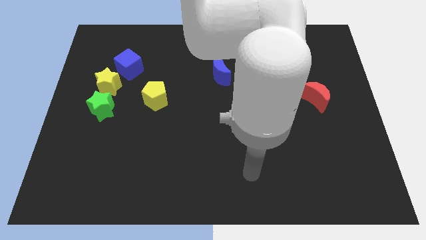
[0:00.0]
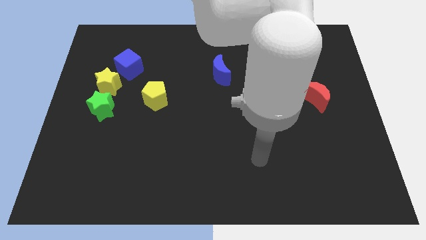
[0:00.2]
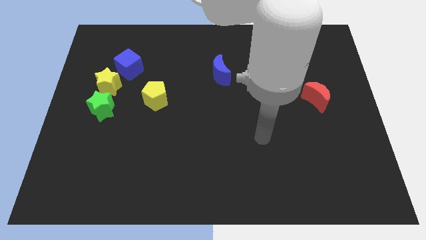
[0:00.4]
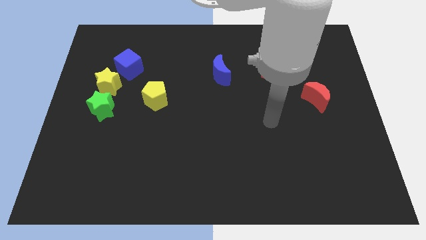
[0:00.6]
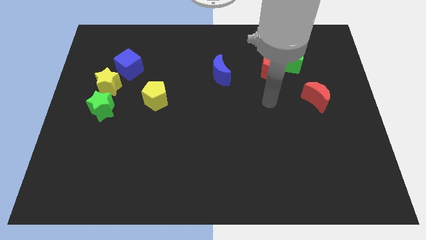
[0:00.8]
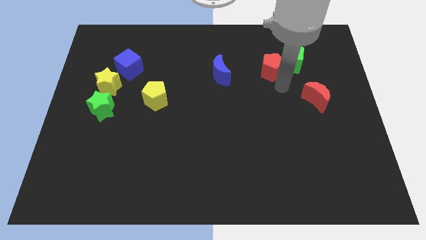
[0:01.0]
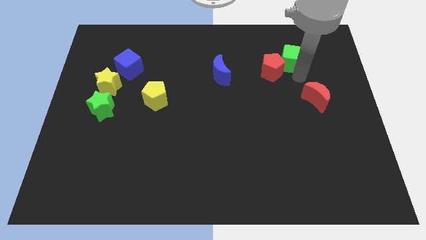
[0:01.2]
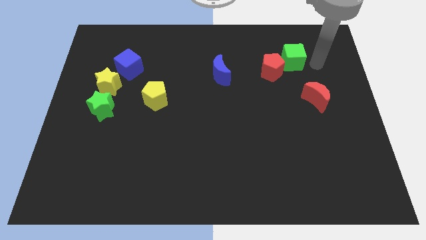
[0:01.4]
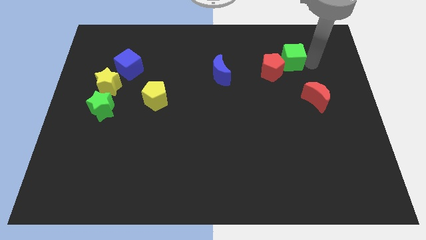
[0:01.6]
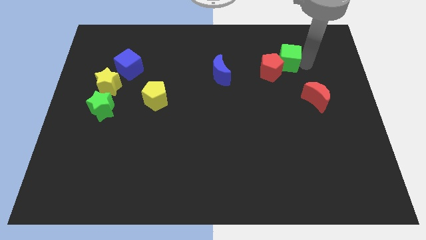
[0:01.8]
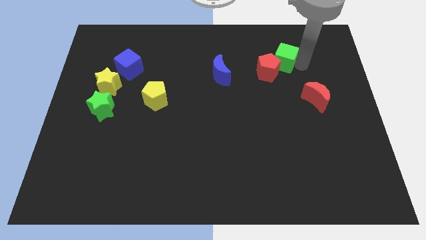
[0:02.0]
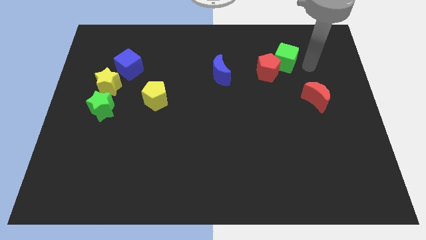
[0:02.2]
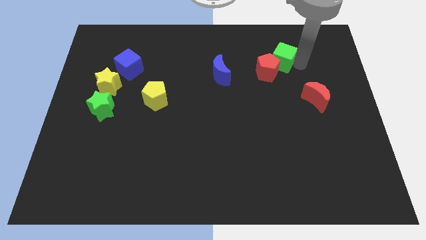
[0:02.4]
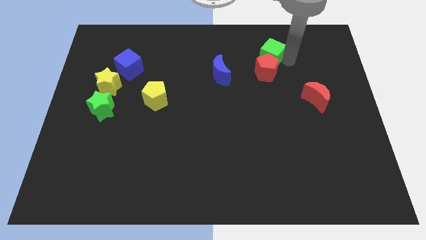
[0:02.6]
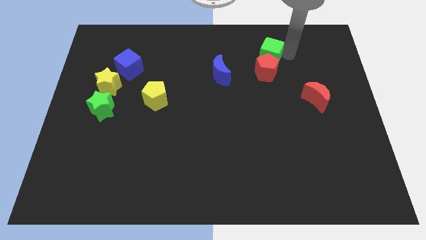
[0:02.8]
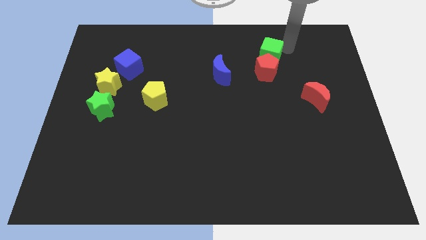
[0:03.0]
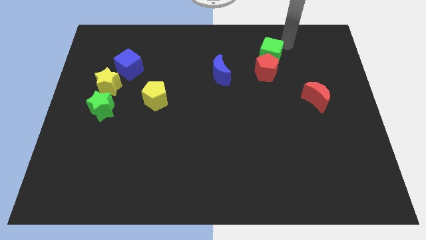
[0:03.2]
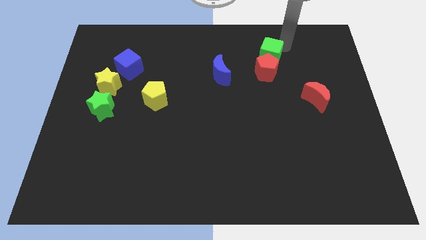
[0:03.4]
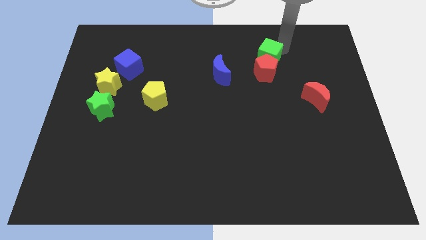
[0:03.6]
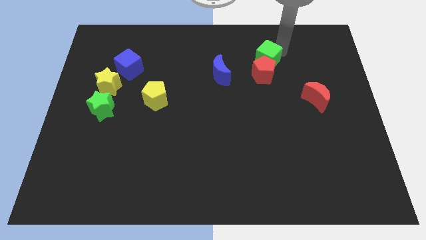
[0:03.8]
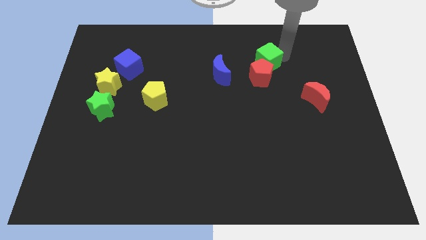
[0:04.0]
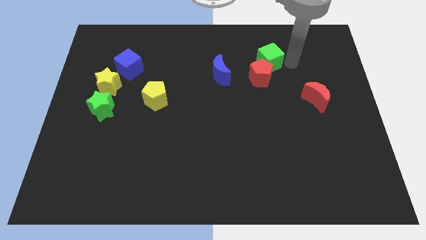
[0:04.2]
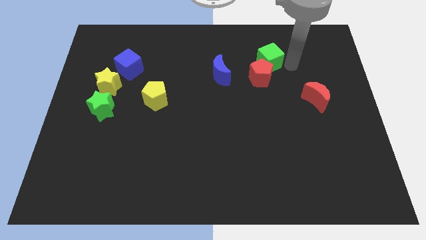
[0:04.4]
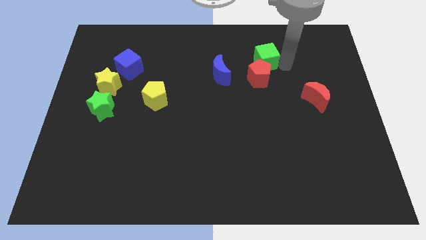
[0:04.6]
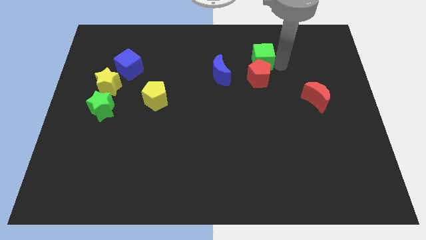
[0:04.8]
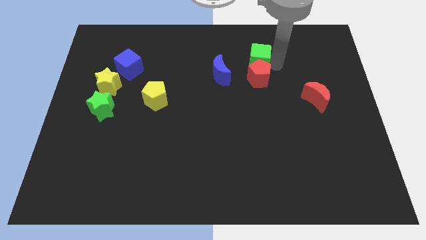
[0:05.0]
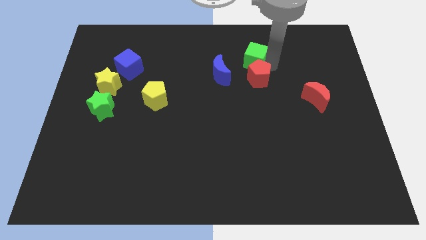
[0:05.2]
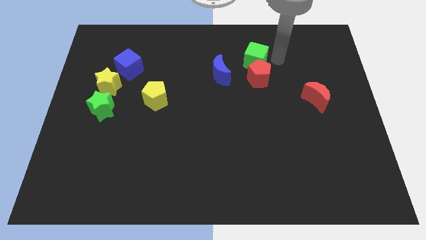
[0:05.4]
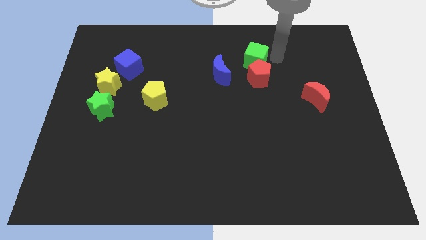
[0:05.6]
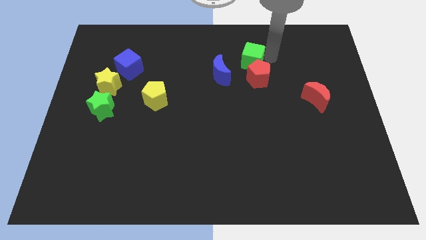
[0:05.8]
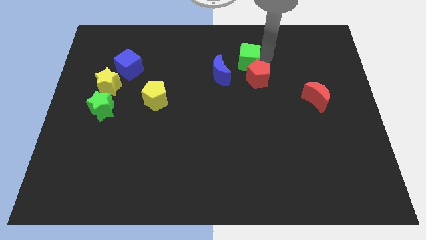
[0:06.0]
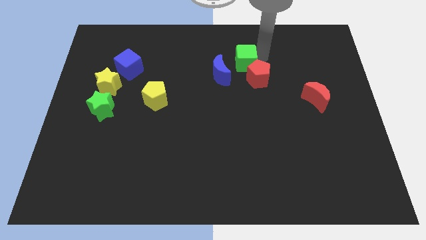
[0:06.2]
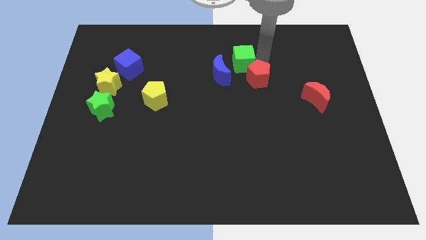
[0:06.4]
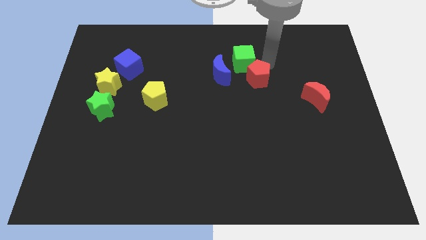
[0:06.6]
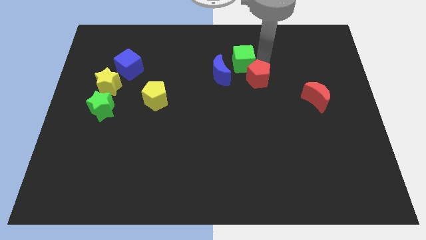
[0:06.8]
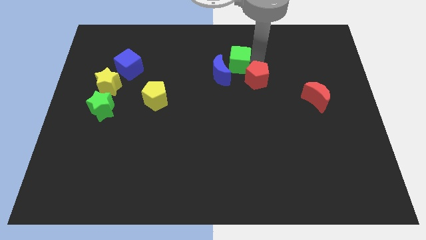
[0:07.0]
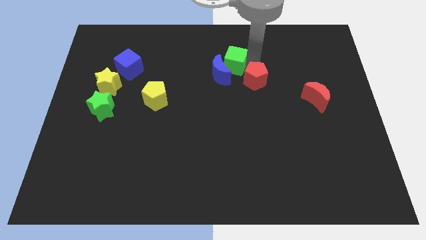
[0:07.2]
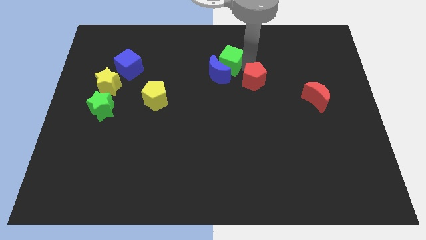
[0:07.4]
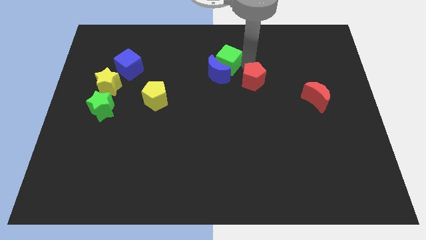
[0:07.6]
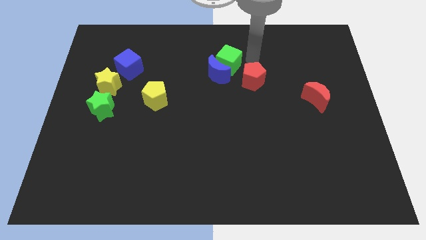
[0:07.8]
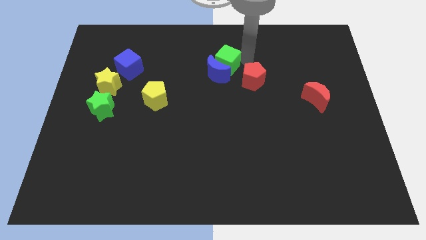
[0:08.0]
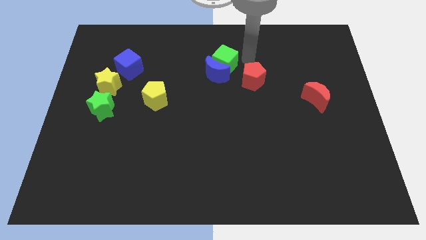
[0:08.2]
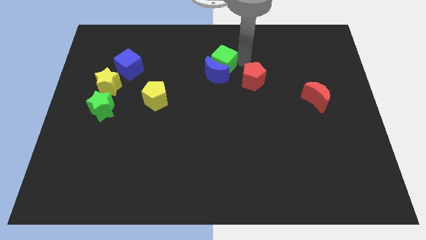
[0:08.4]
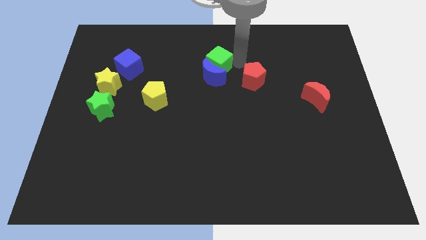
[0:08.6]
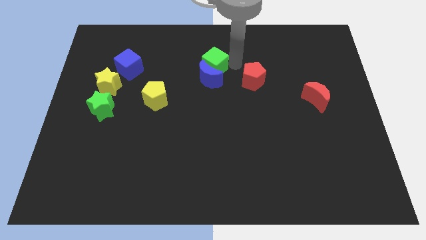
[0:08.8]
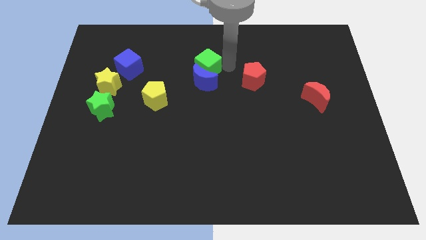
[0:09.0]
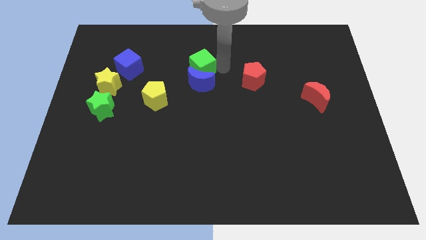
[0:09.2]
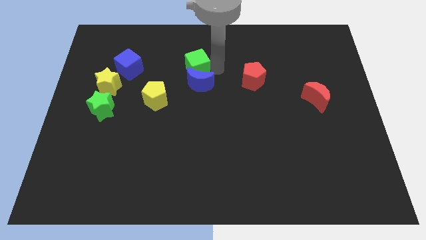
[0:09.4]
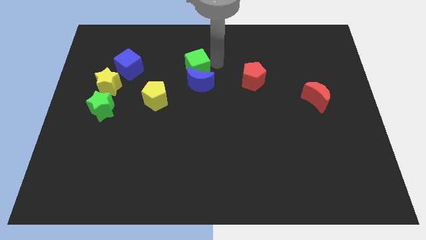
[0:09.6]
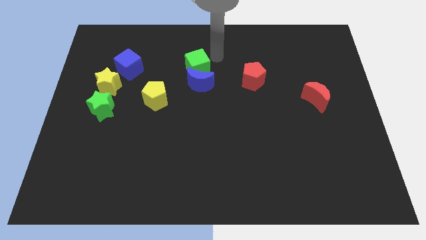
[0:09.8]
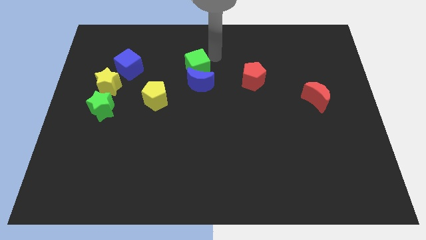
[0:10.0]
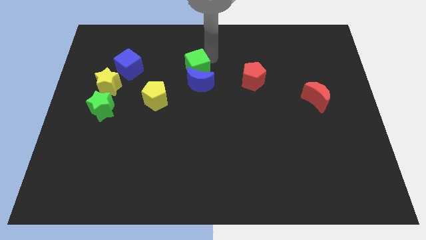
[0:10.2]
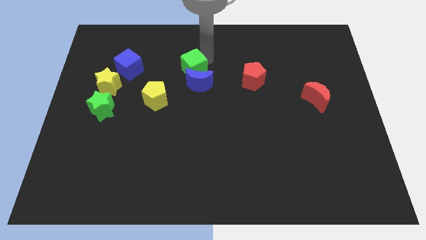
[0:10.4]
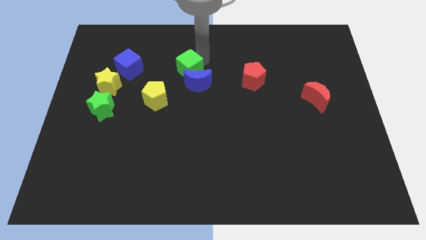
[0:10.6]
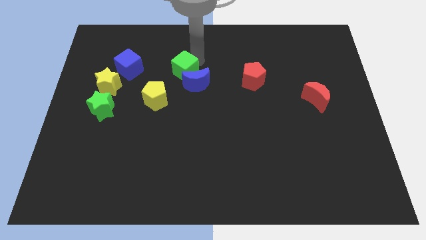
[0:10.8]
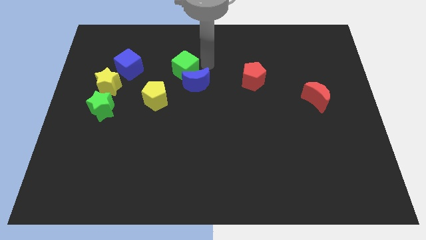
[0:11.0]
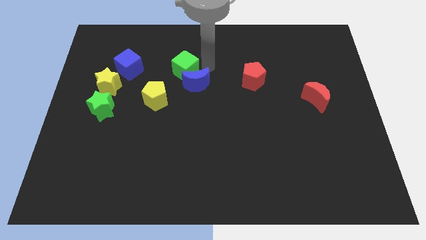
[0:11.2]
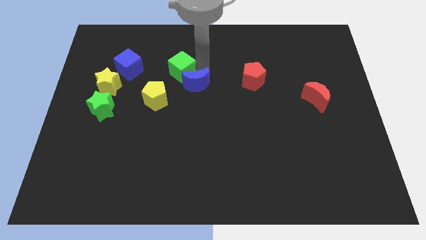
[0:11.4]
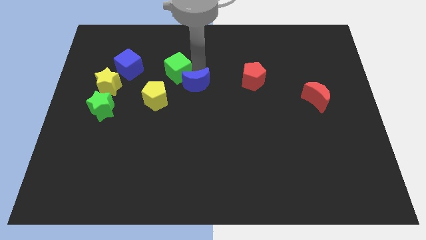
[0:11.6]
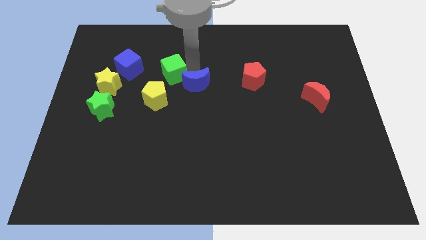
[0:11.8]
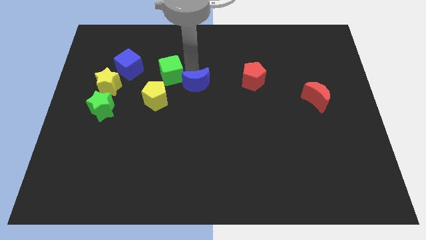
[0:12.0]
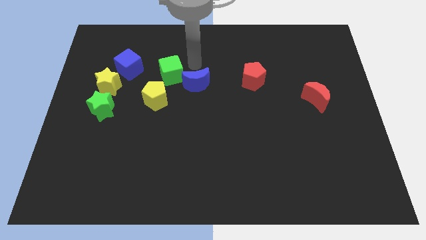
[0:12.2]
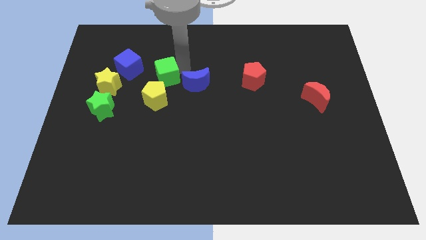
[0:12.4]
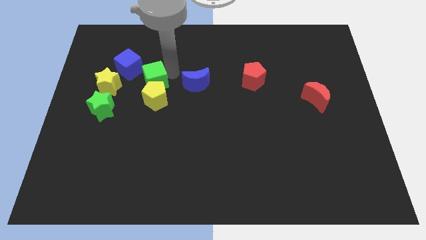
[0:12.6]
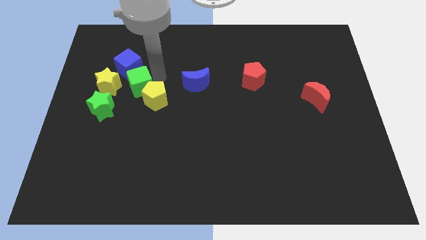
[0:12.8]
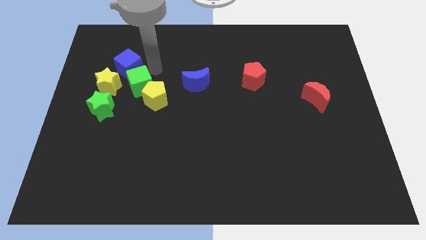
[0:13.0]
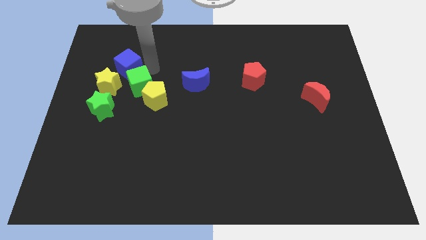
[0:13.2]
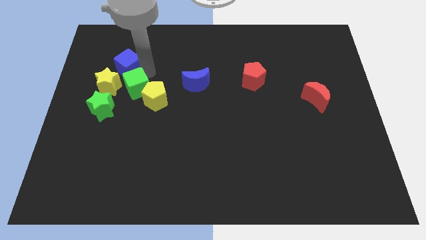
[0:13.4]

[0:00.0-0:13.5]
push the green cube diagonally down and to the right of the yellow star
